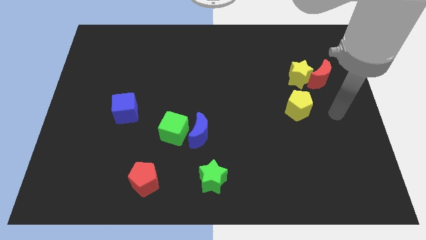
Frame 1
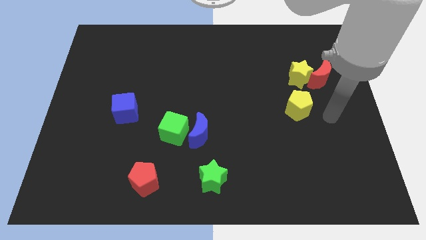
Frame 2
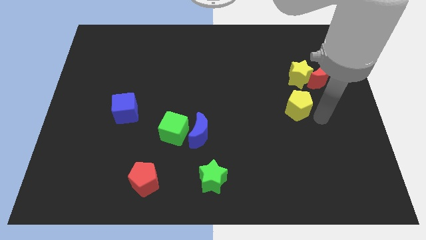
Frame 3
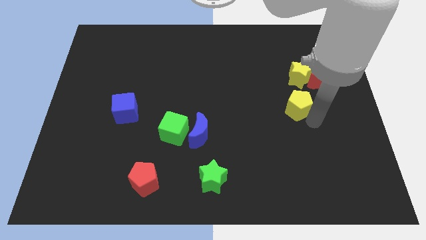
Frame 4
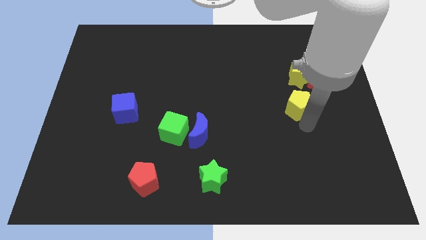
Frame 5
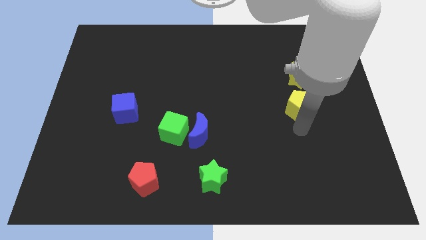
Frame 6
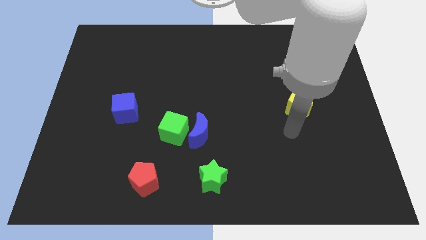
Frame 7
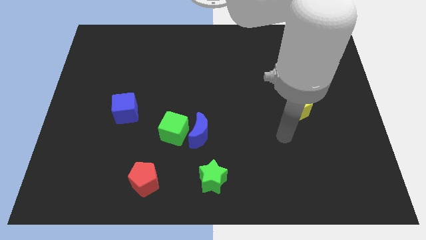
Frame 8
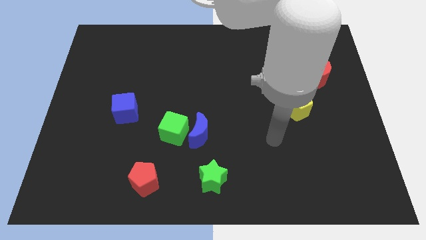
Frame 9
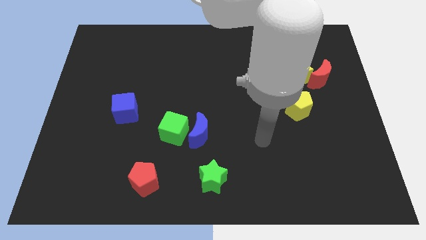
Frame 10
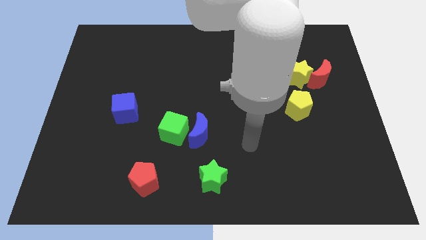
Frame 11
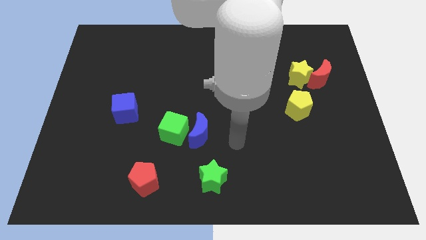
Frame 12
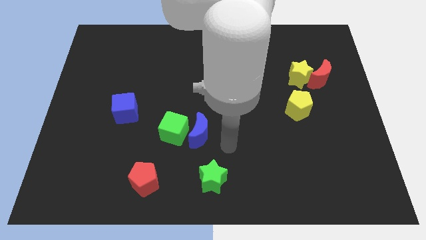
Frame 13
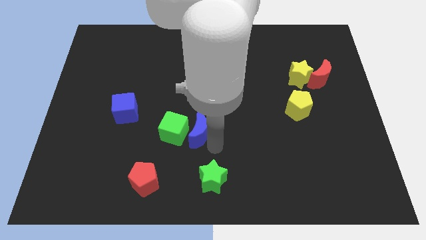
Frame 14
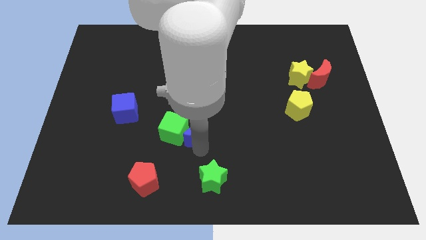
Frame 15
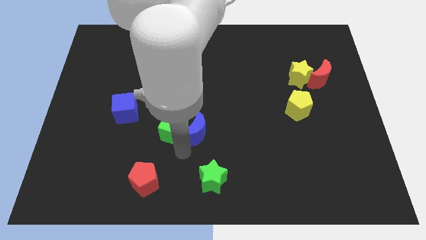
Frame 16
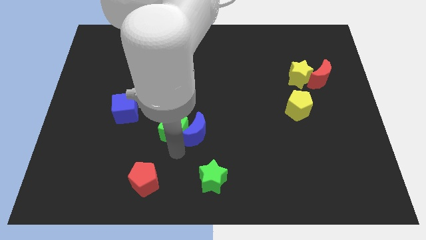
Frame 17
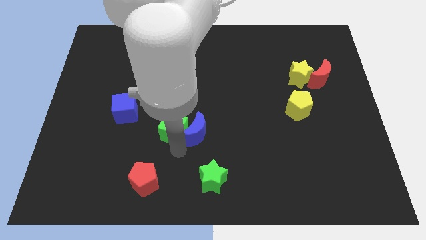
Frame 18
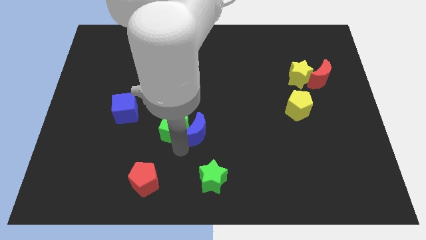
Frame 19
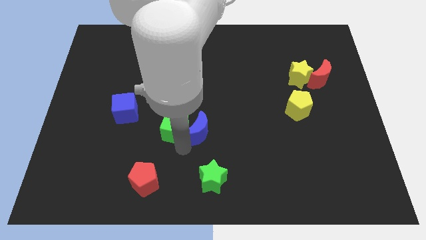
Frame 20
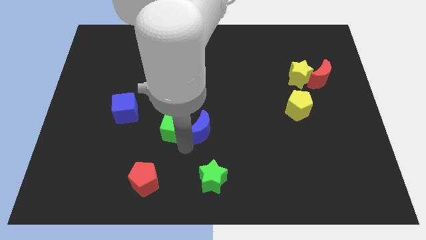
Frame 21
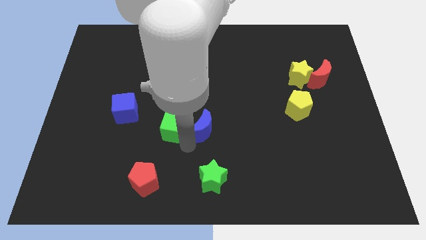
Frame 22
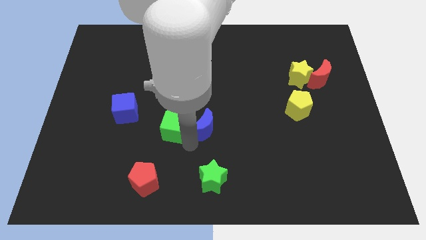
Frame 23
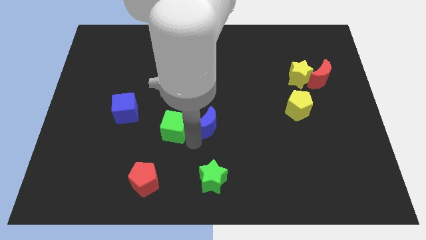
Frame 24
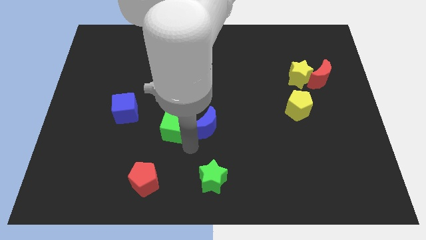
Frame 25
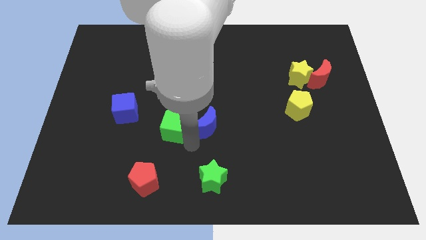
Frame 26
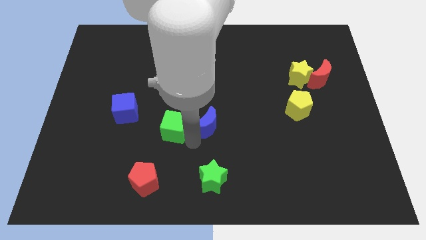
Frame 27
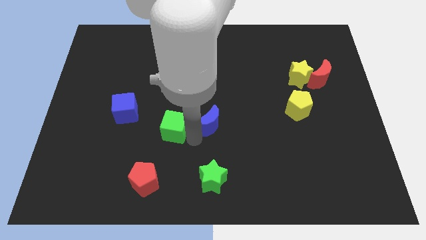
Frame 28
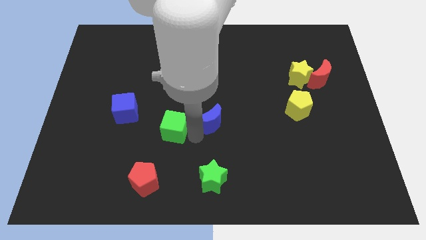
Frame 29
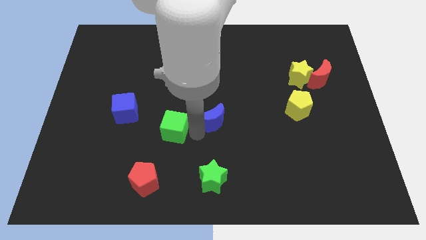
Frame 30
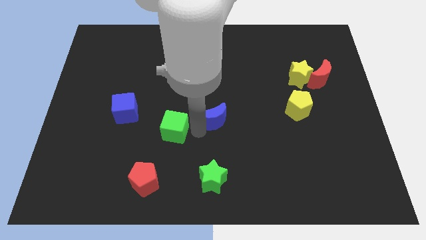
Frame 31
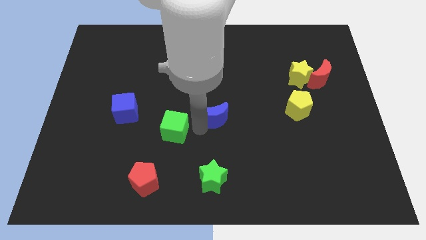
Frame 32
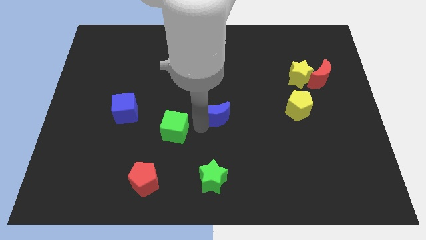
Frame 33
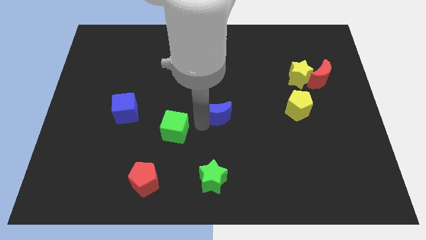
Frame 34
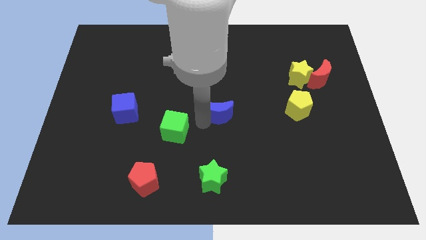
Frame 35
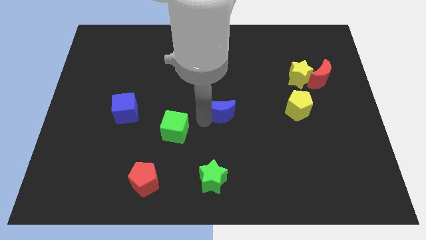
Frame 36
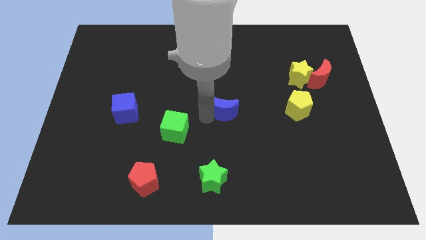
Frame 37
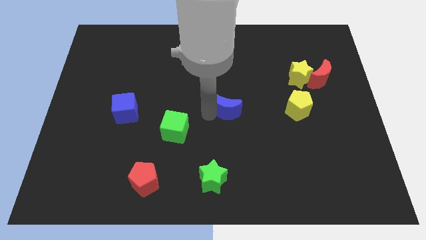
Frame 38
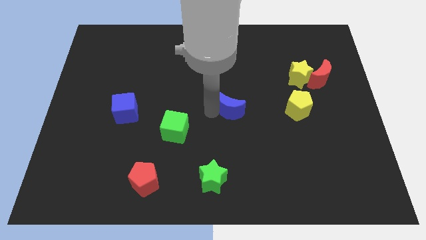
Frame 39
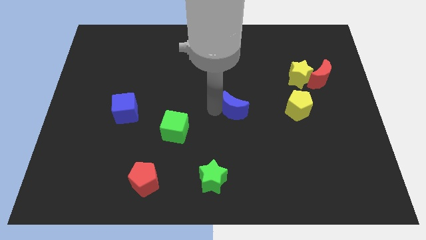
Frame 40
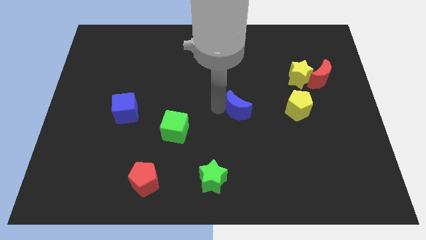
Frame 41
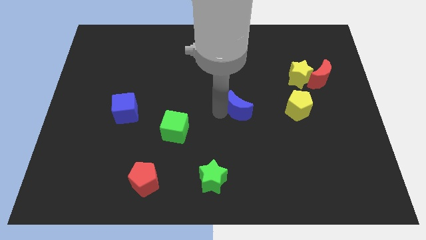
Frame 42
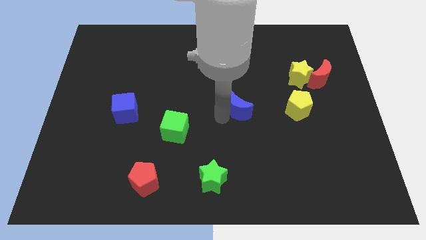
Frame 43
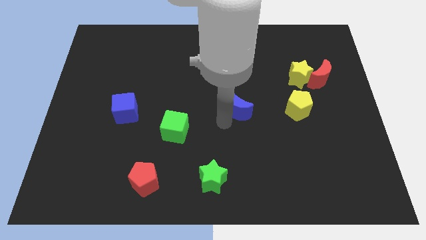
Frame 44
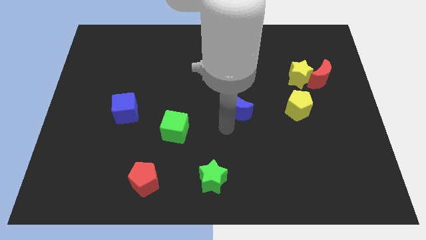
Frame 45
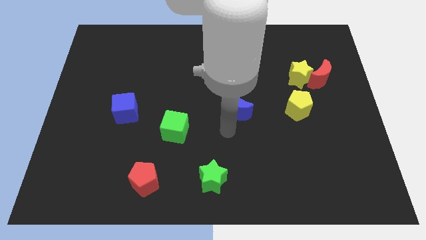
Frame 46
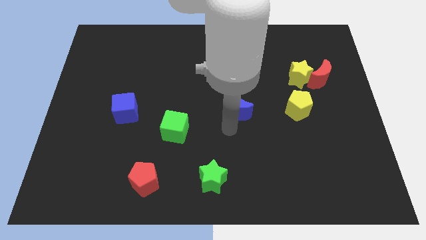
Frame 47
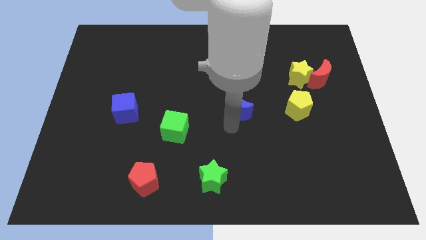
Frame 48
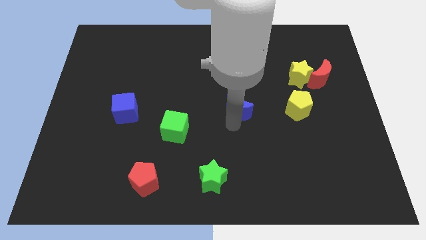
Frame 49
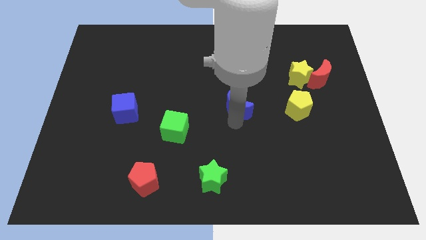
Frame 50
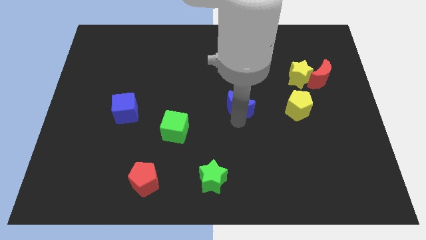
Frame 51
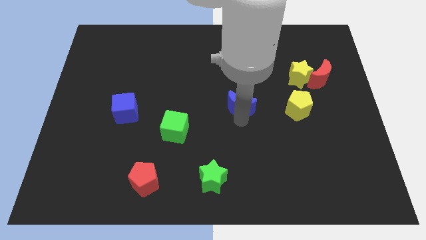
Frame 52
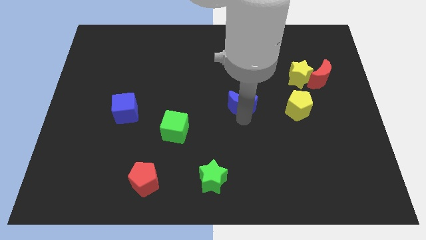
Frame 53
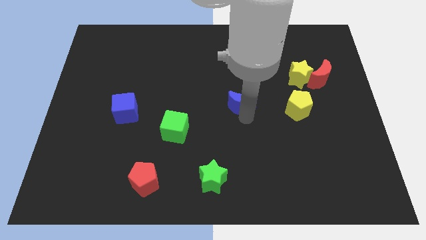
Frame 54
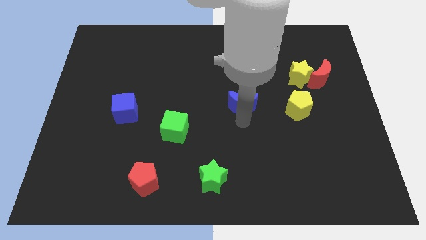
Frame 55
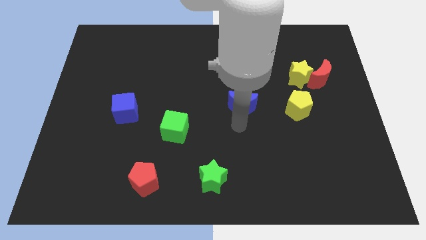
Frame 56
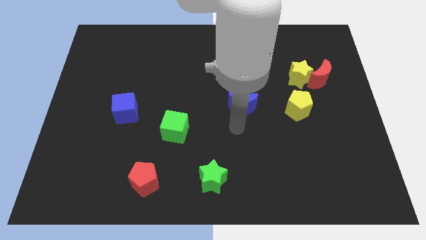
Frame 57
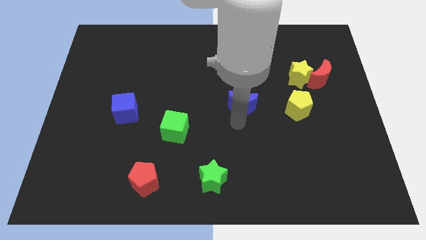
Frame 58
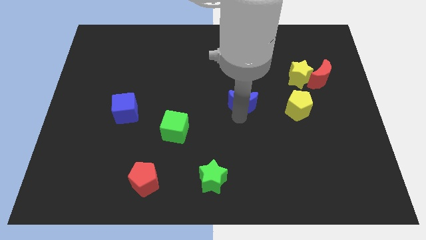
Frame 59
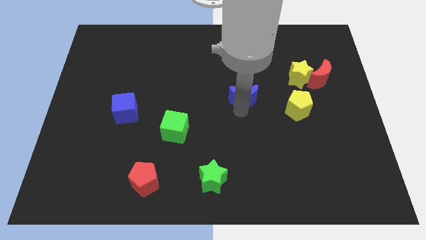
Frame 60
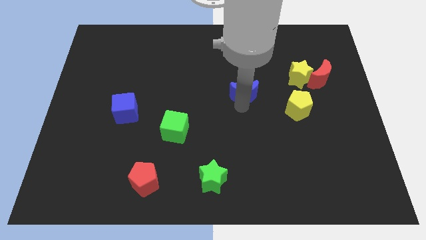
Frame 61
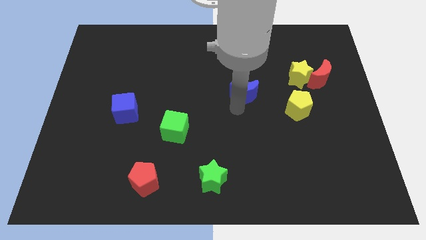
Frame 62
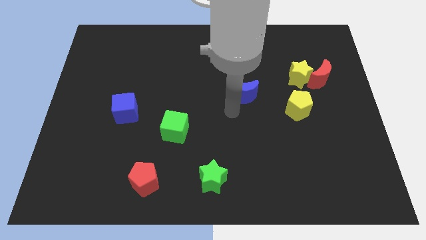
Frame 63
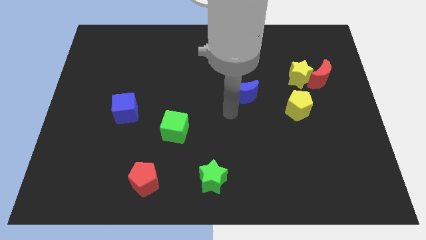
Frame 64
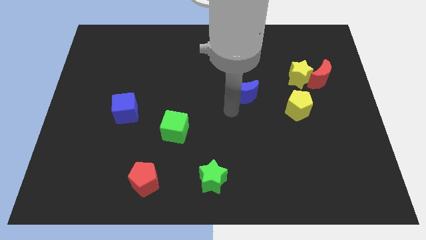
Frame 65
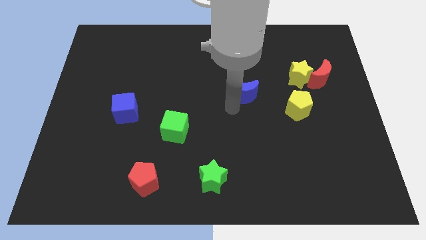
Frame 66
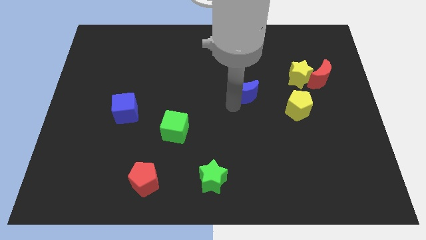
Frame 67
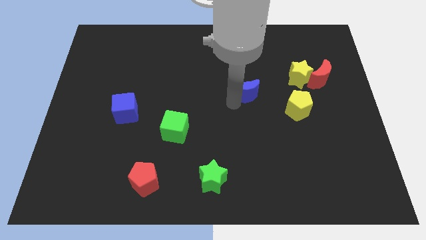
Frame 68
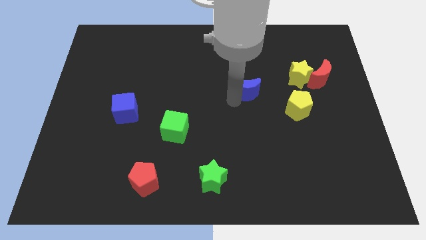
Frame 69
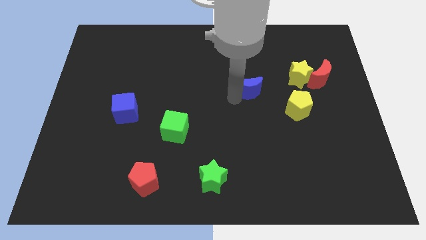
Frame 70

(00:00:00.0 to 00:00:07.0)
push the blue moon left of the yellow star
